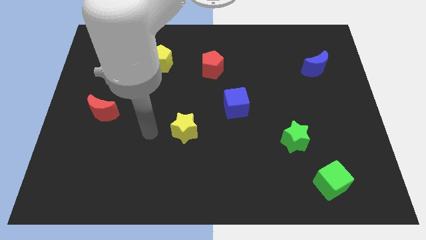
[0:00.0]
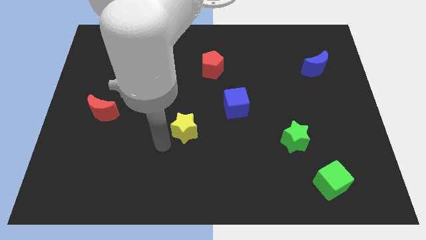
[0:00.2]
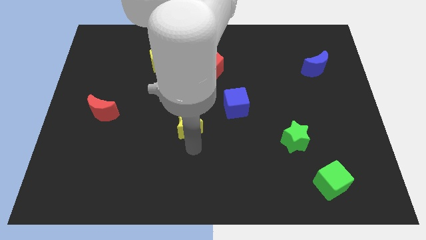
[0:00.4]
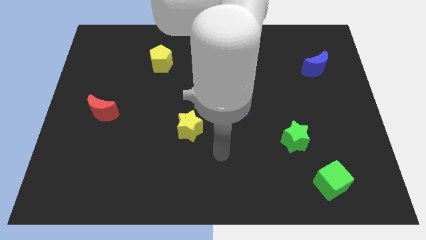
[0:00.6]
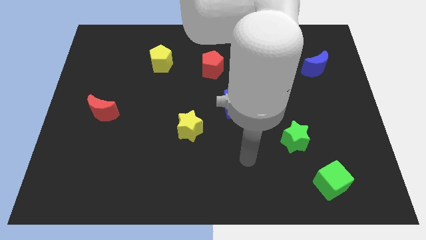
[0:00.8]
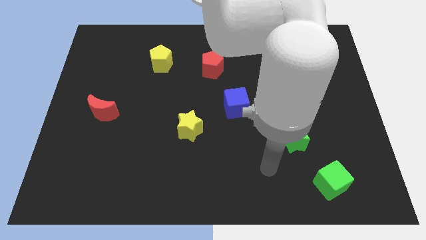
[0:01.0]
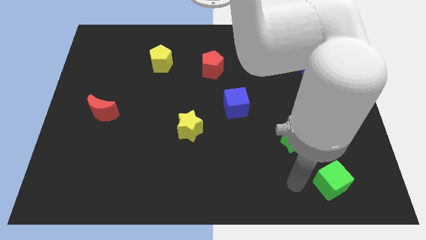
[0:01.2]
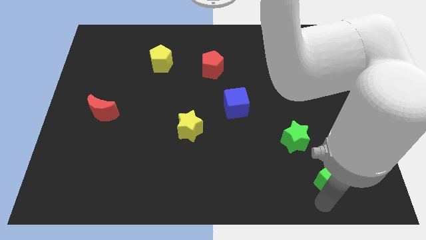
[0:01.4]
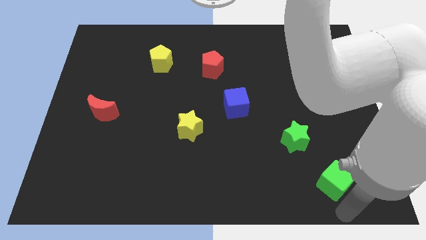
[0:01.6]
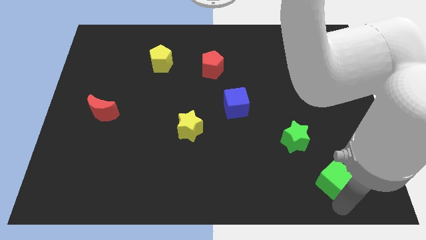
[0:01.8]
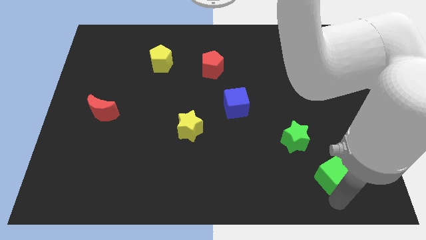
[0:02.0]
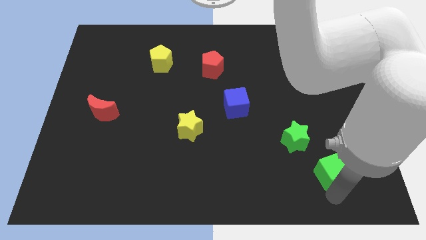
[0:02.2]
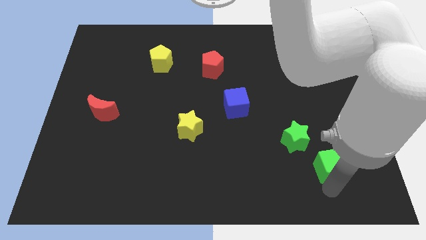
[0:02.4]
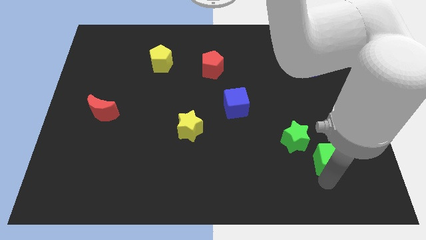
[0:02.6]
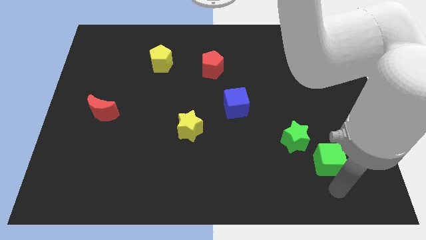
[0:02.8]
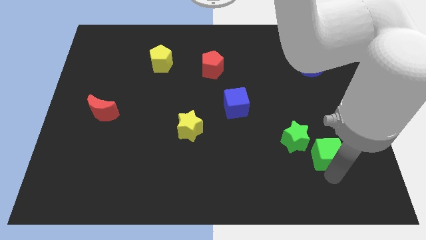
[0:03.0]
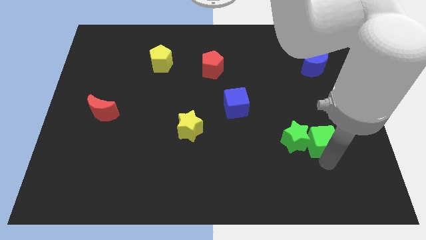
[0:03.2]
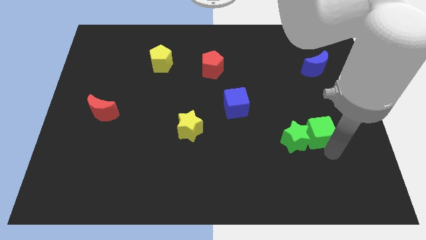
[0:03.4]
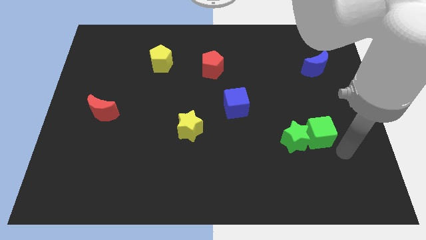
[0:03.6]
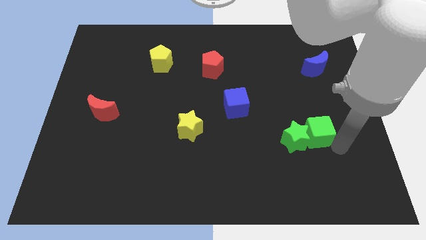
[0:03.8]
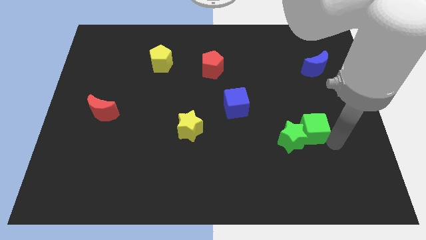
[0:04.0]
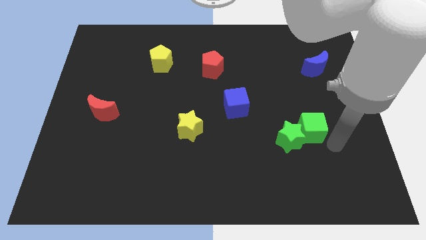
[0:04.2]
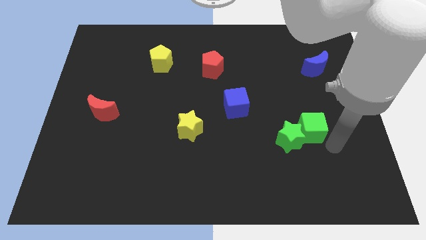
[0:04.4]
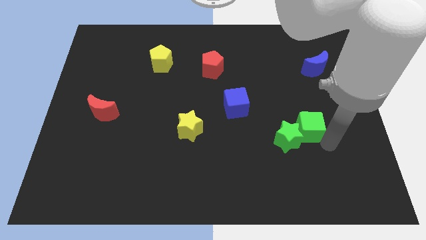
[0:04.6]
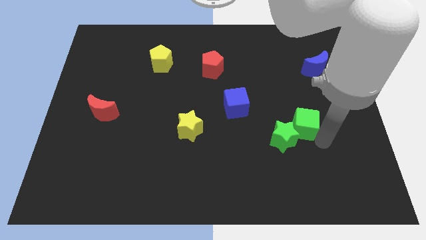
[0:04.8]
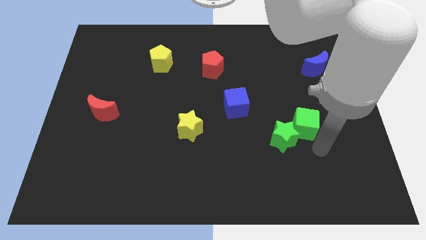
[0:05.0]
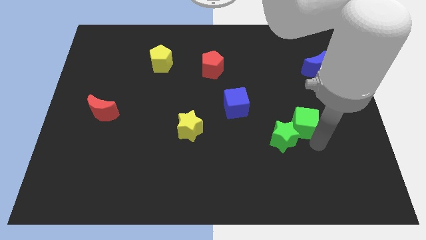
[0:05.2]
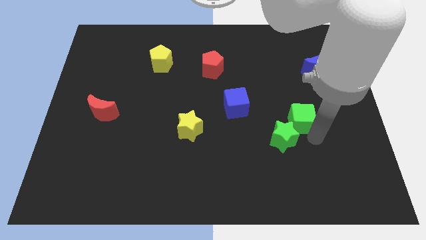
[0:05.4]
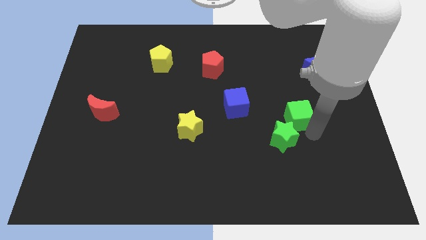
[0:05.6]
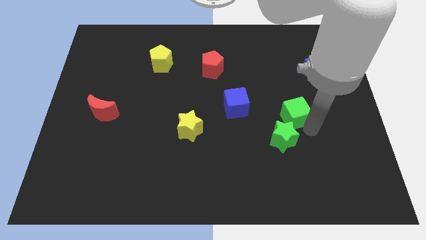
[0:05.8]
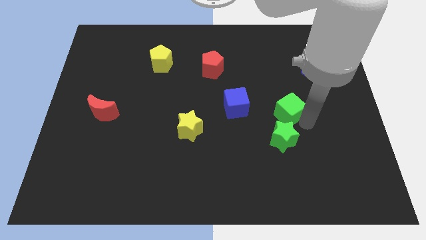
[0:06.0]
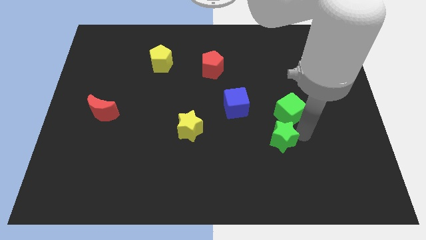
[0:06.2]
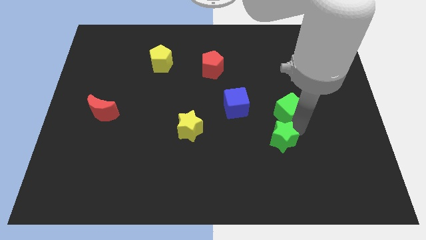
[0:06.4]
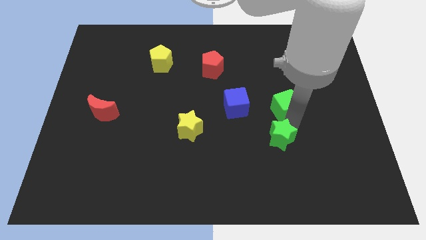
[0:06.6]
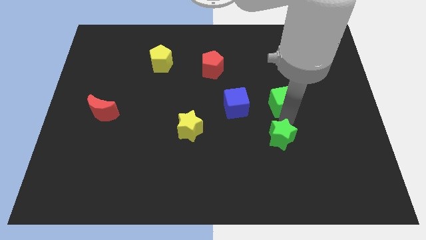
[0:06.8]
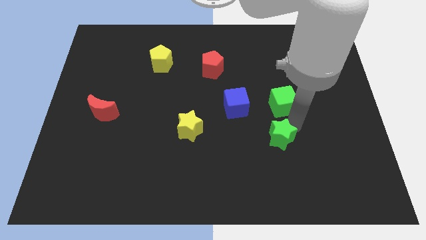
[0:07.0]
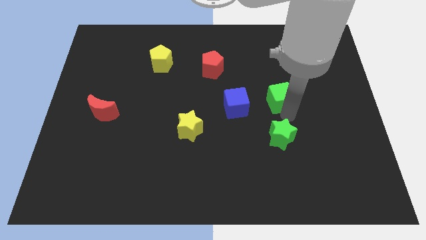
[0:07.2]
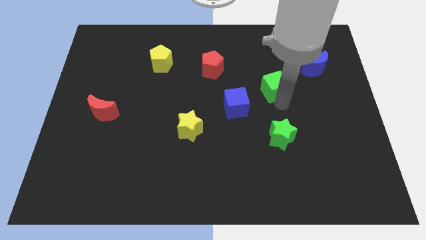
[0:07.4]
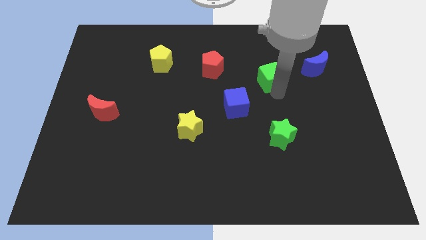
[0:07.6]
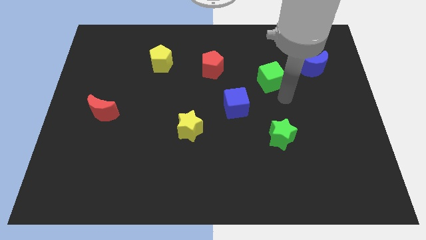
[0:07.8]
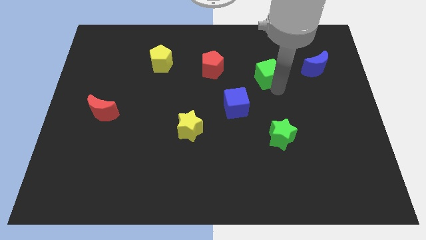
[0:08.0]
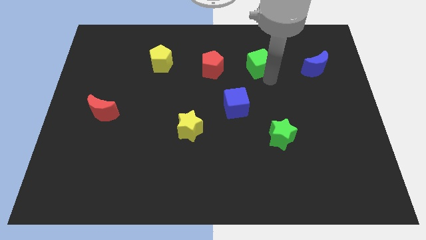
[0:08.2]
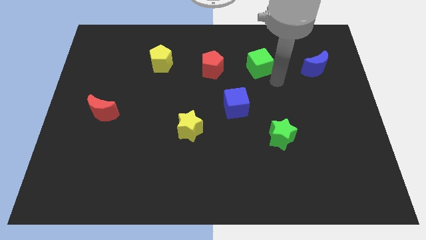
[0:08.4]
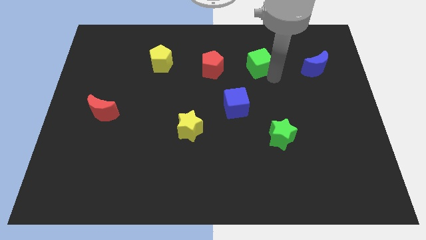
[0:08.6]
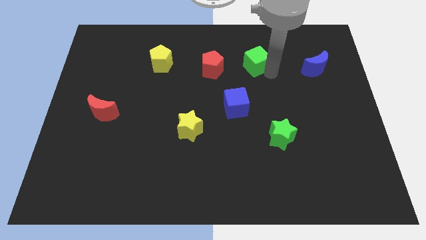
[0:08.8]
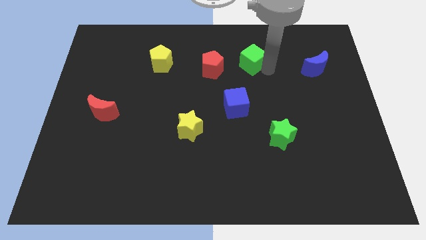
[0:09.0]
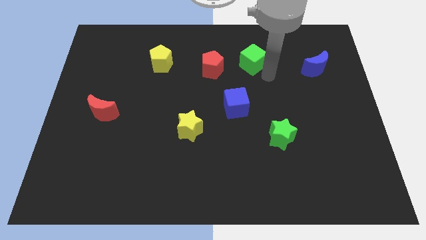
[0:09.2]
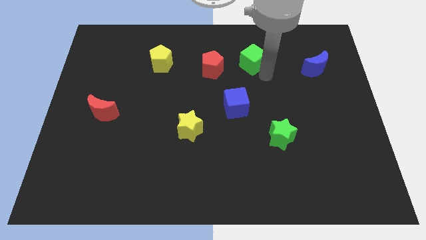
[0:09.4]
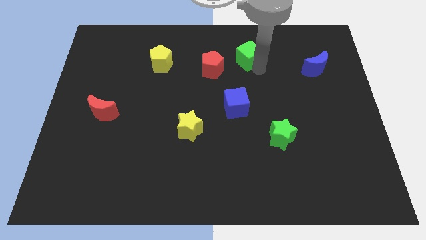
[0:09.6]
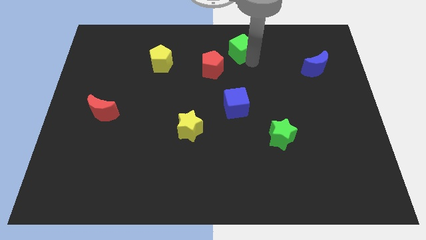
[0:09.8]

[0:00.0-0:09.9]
push the green cube to the top

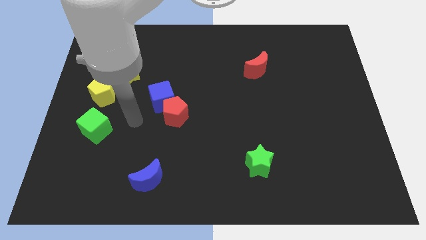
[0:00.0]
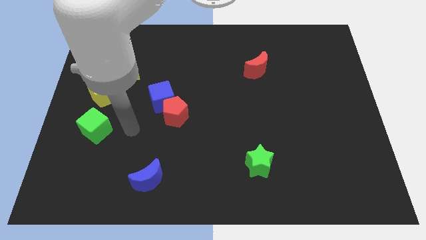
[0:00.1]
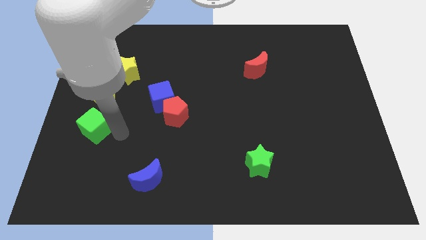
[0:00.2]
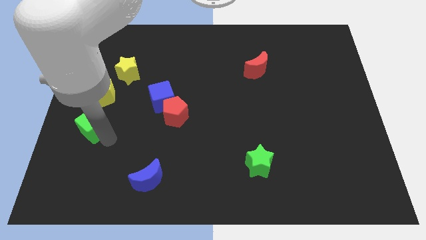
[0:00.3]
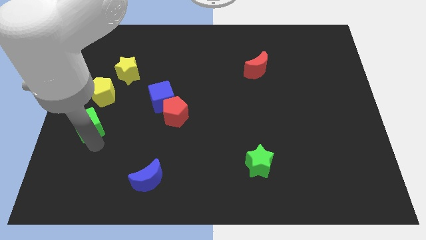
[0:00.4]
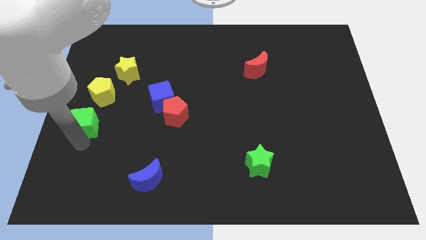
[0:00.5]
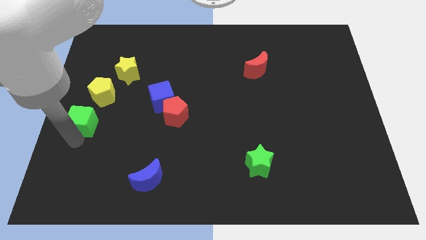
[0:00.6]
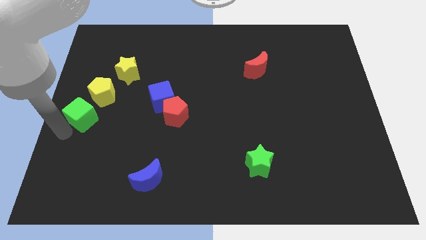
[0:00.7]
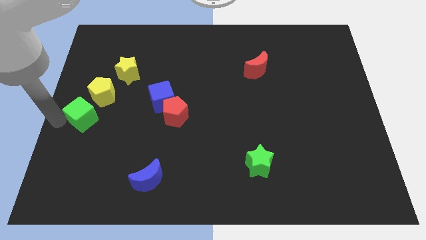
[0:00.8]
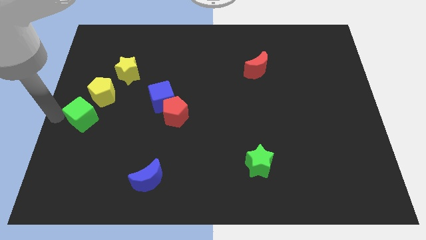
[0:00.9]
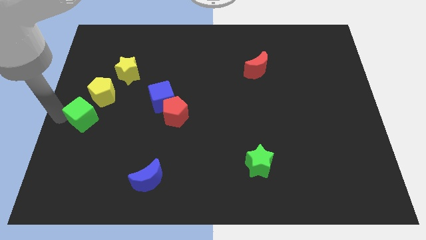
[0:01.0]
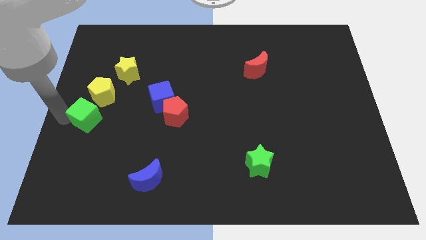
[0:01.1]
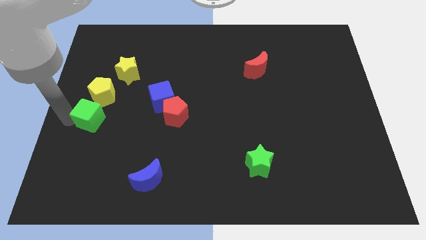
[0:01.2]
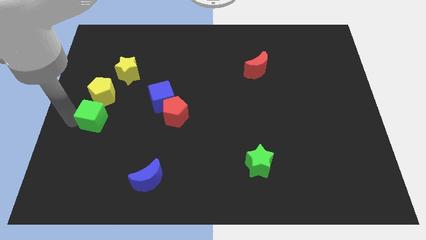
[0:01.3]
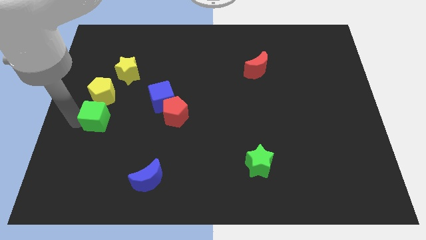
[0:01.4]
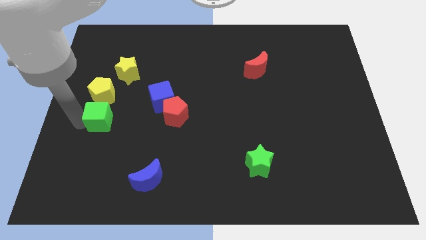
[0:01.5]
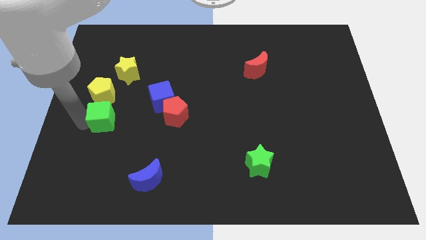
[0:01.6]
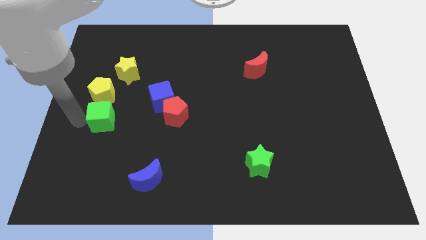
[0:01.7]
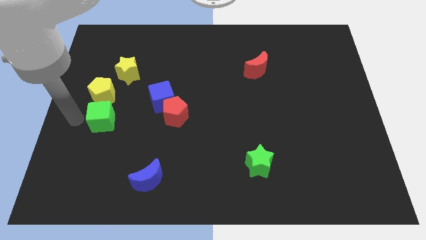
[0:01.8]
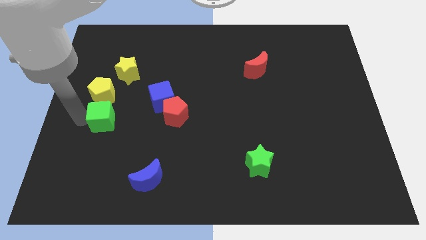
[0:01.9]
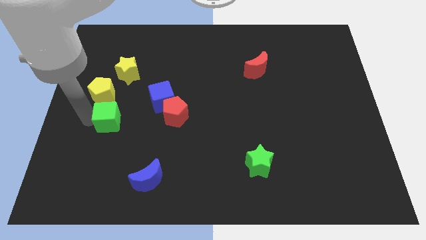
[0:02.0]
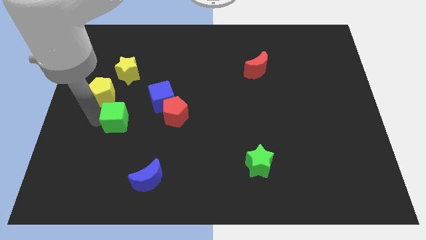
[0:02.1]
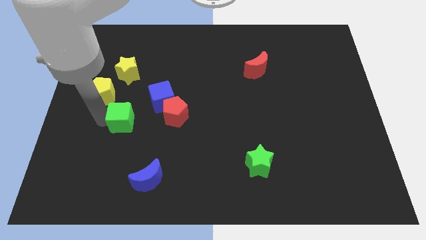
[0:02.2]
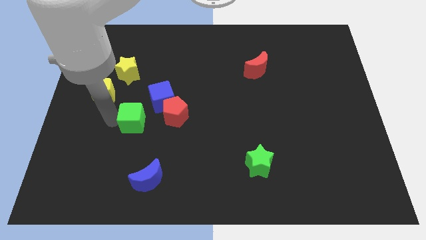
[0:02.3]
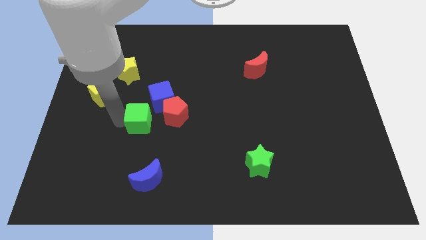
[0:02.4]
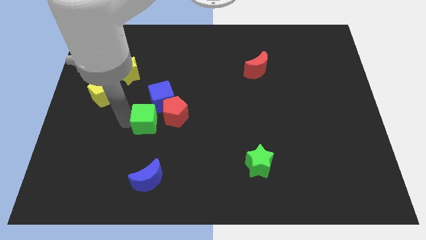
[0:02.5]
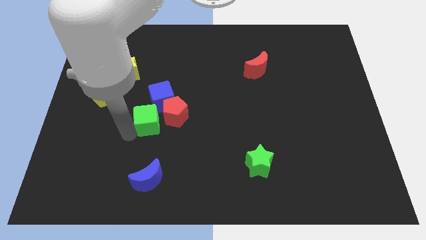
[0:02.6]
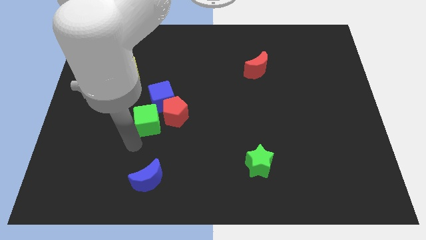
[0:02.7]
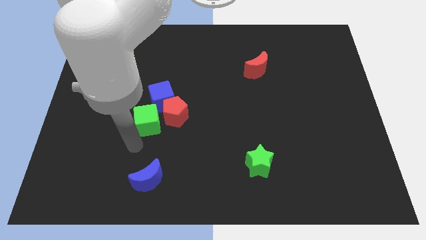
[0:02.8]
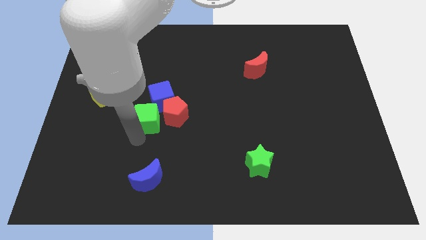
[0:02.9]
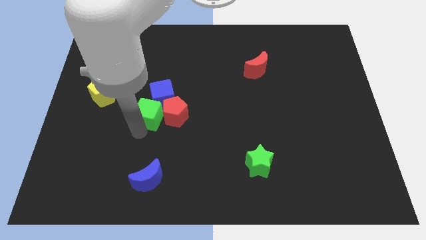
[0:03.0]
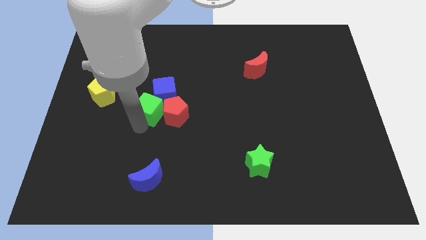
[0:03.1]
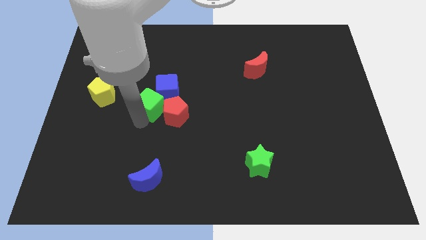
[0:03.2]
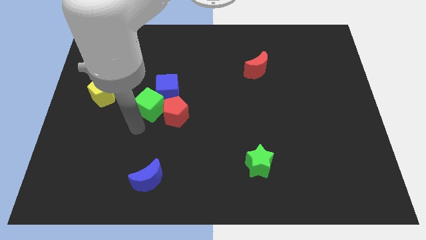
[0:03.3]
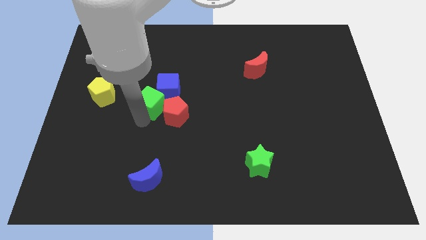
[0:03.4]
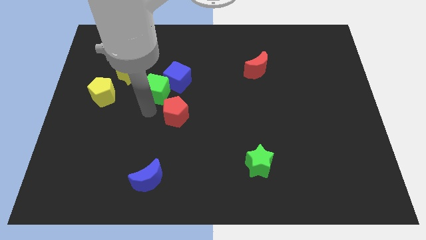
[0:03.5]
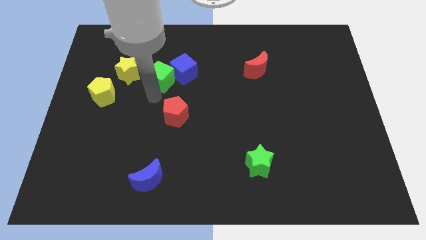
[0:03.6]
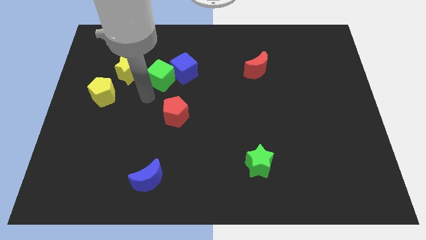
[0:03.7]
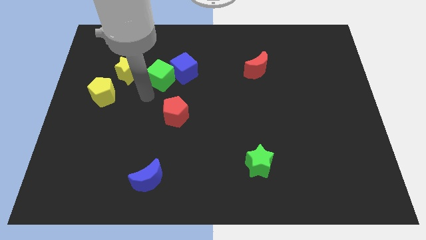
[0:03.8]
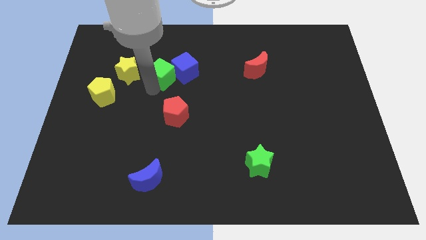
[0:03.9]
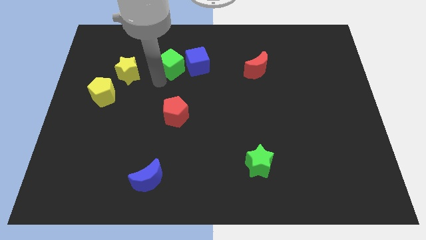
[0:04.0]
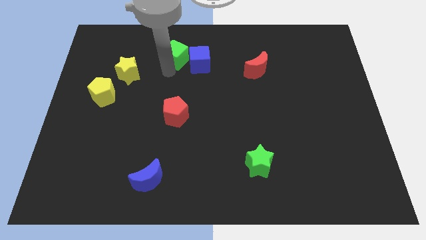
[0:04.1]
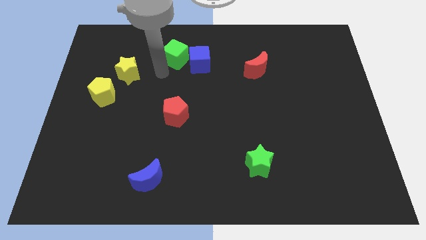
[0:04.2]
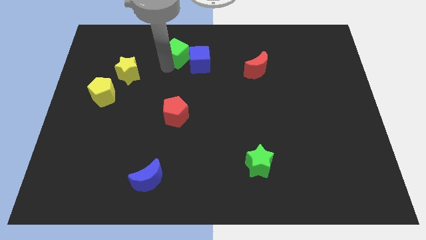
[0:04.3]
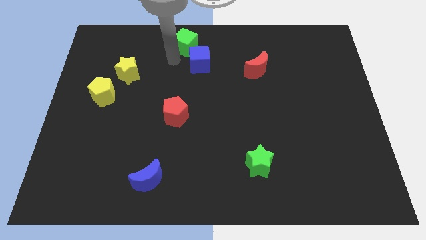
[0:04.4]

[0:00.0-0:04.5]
slide the green cube to the top
